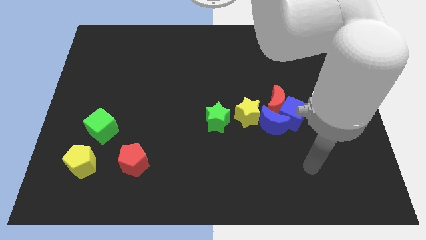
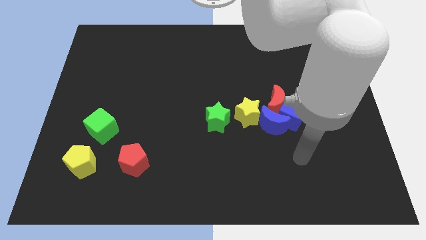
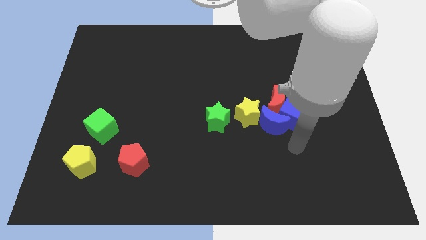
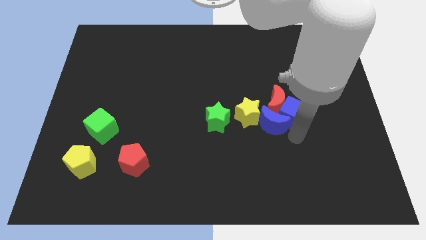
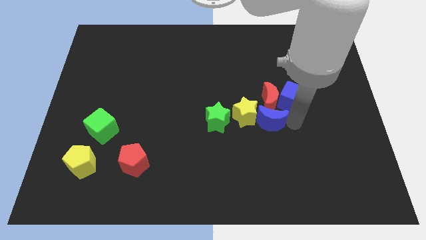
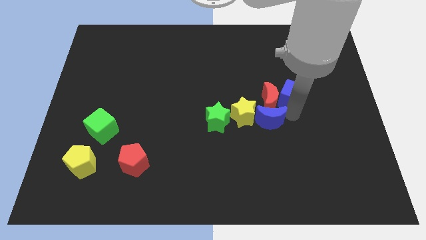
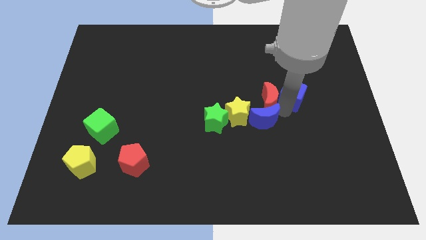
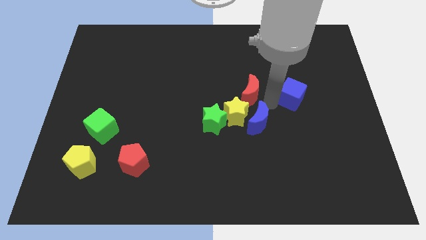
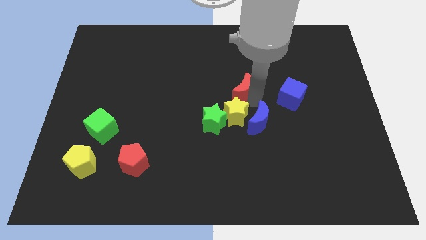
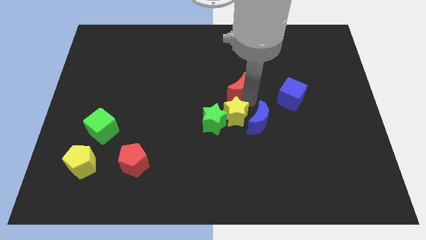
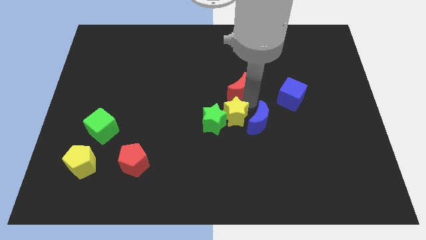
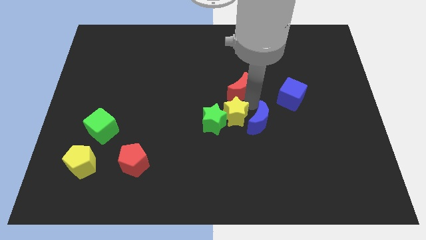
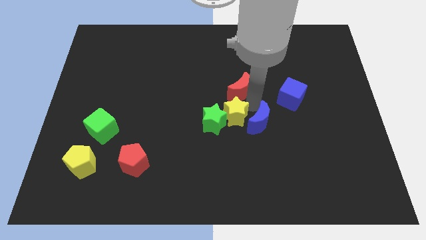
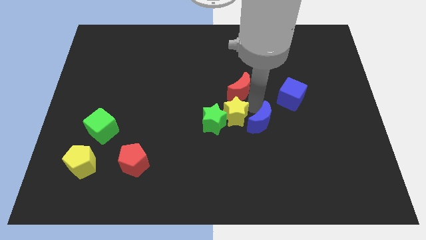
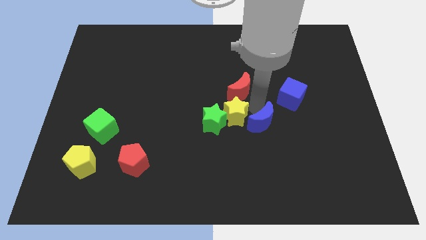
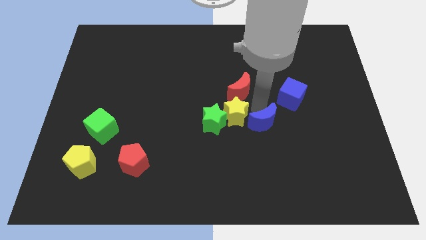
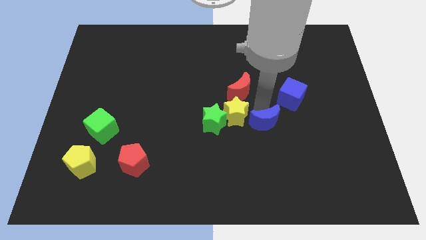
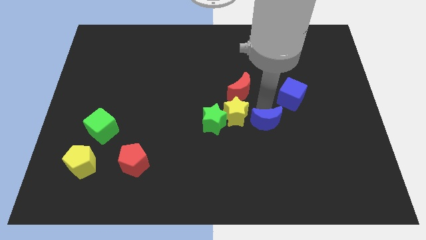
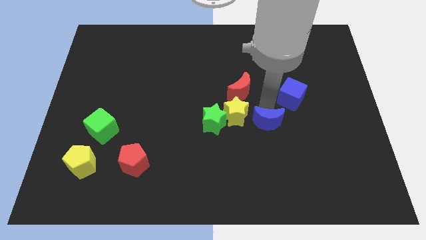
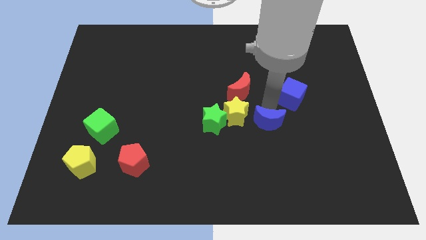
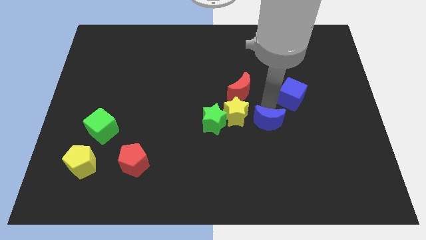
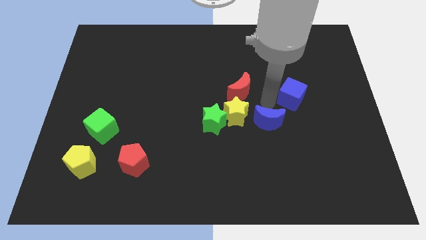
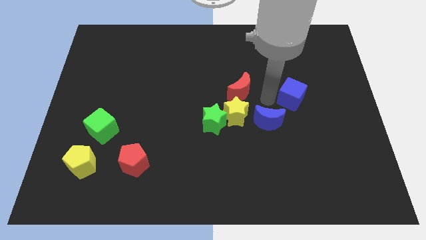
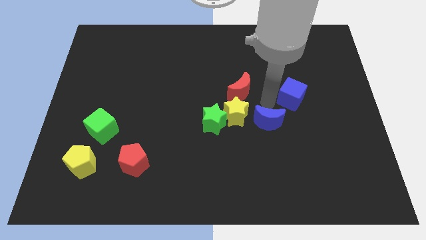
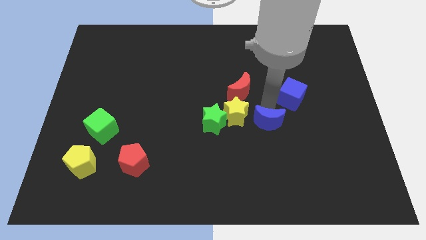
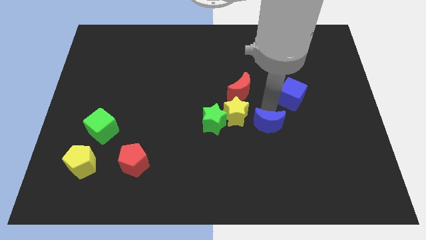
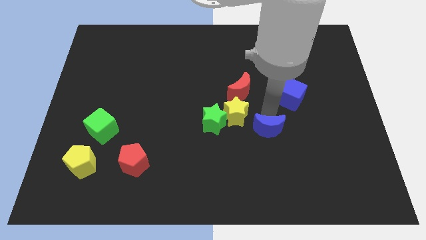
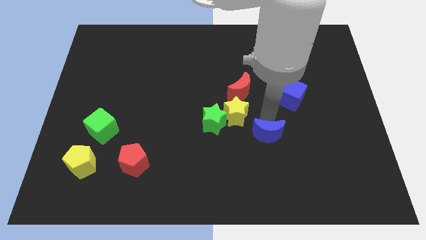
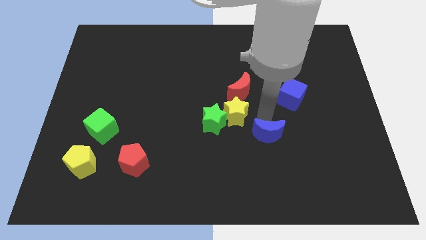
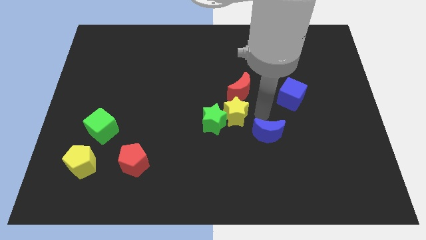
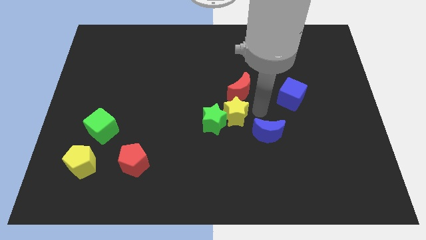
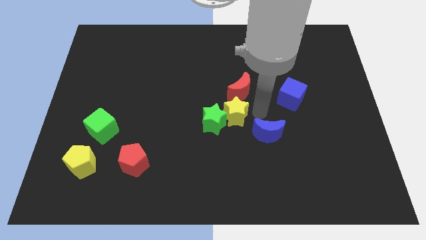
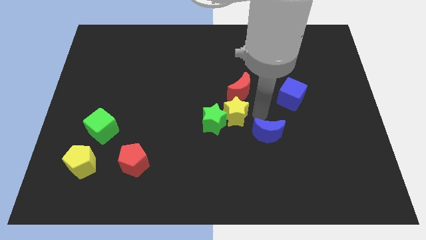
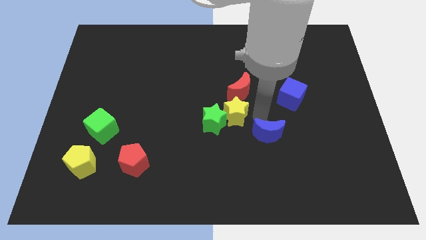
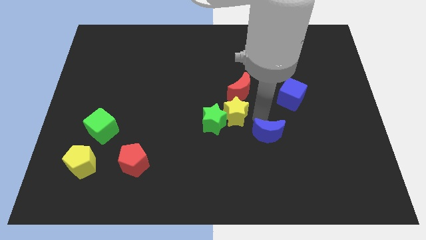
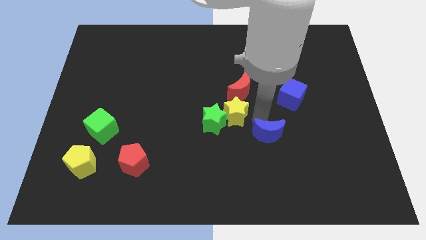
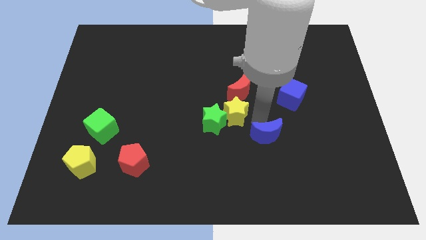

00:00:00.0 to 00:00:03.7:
move the blue moon away from the blue cube, red moon, and yellow star

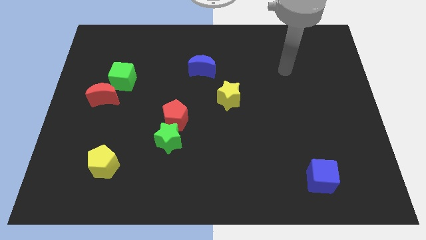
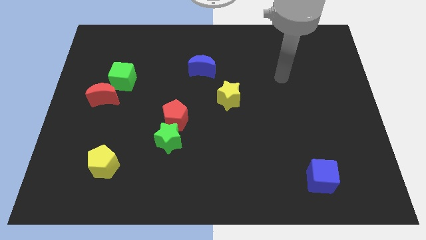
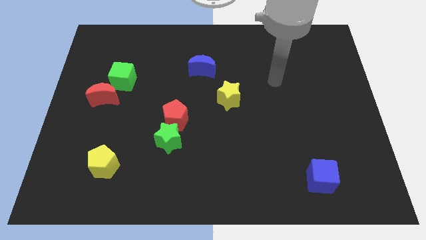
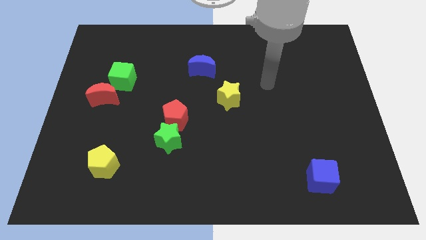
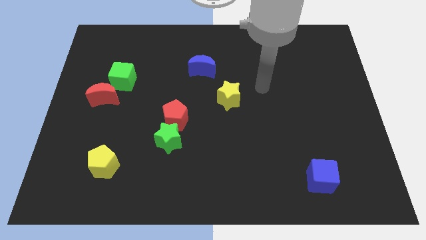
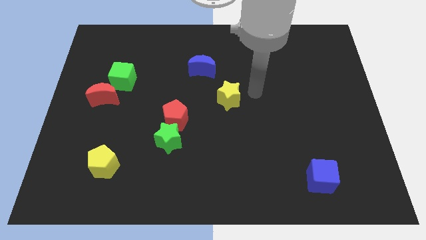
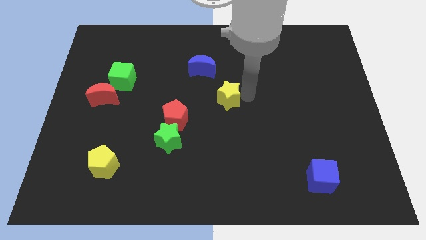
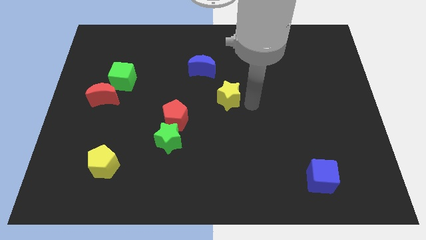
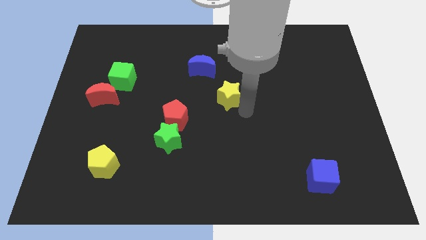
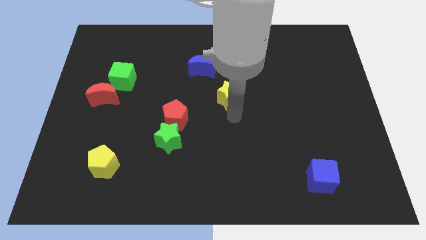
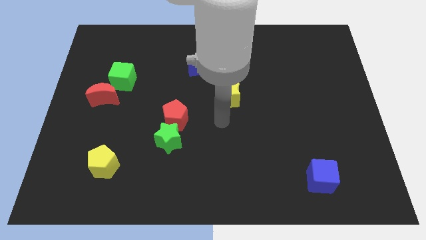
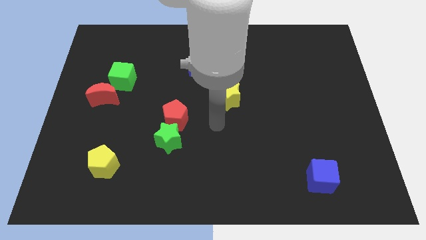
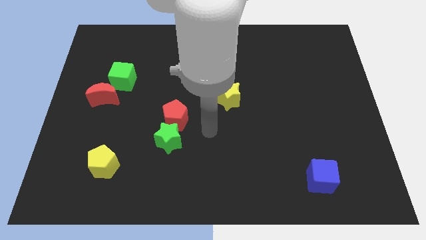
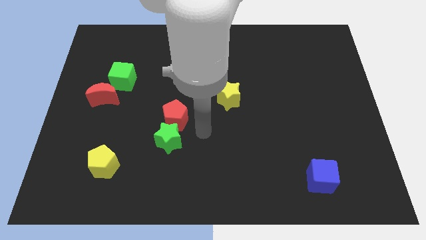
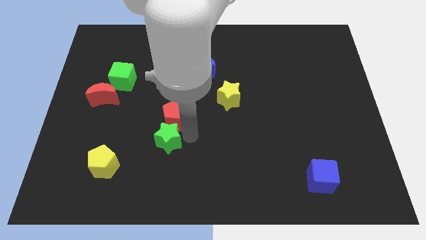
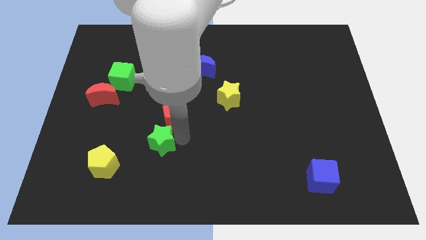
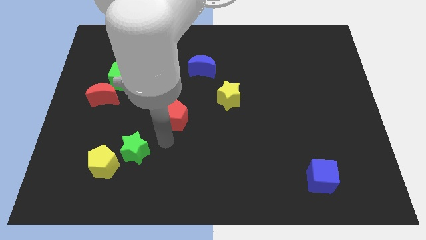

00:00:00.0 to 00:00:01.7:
pull the red pentagon apart from the green star

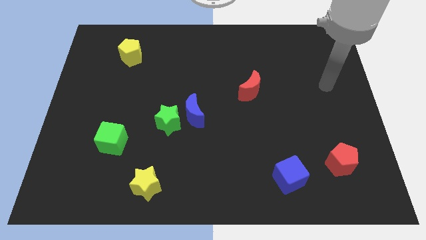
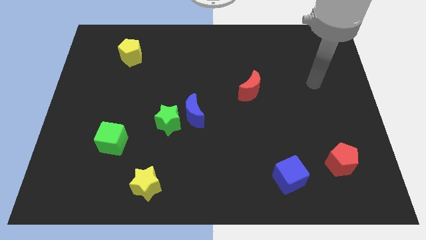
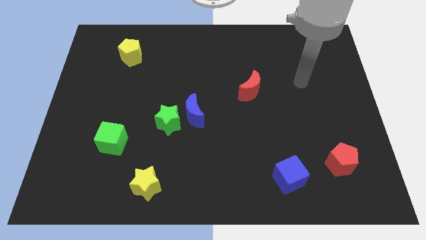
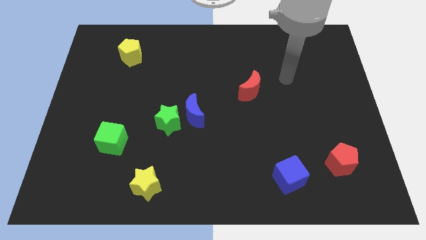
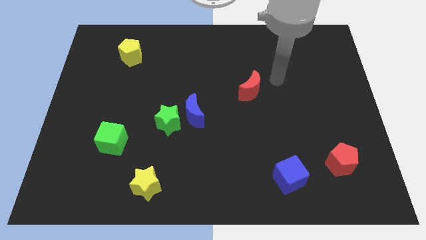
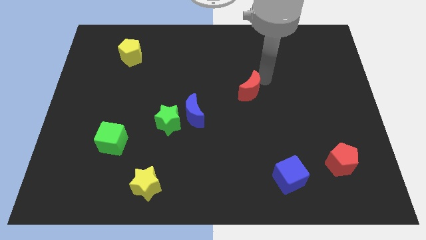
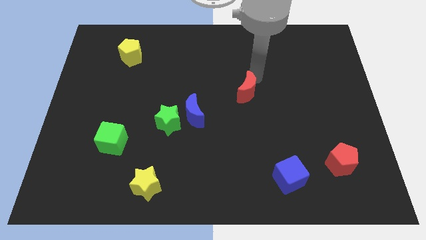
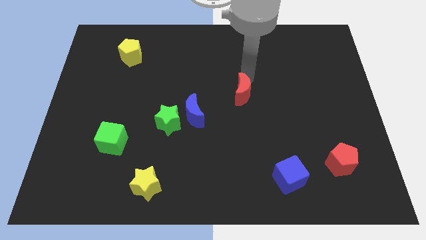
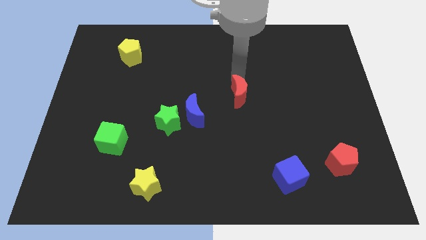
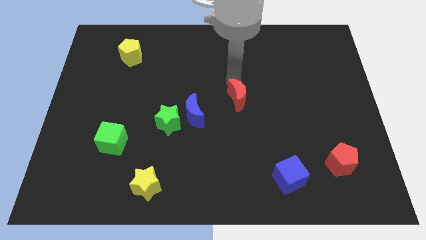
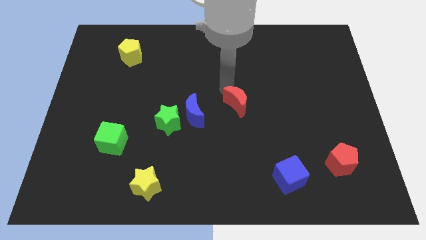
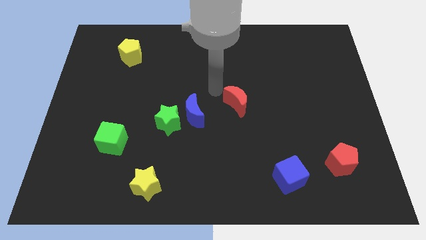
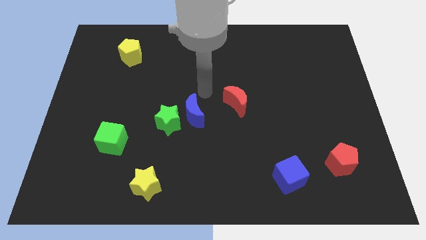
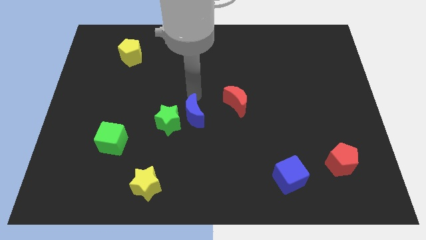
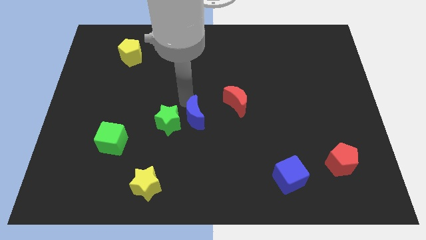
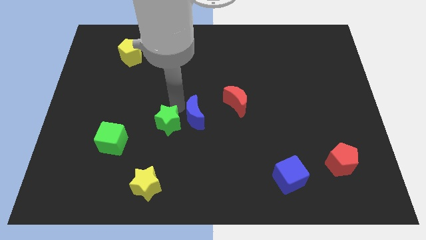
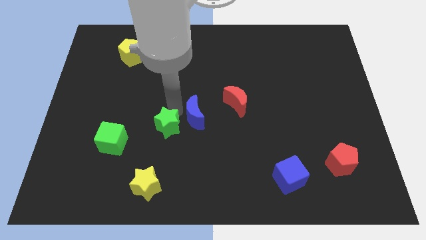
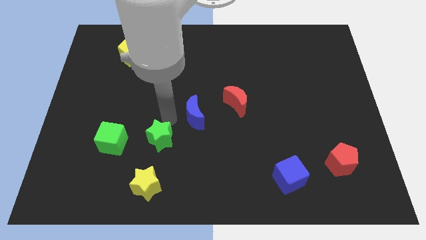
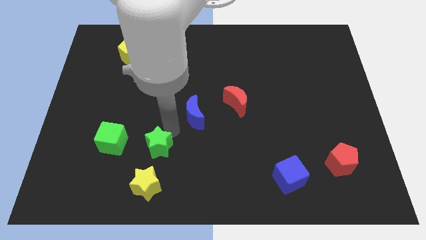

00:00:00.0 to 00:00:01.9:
move the blue moon away from the green star

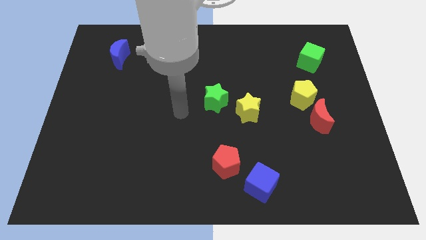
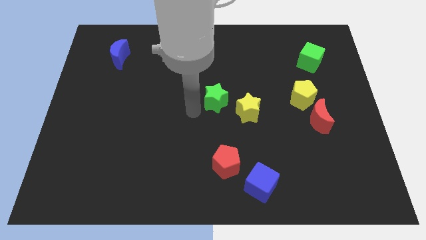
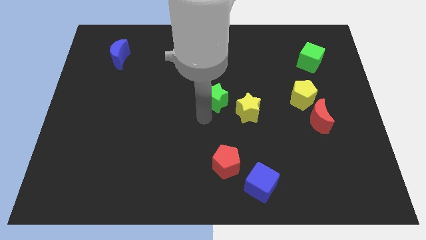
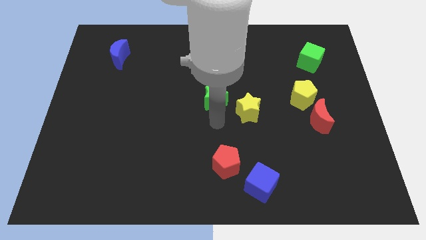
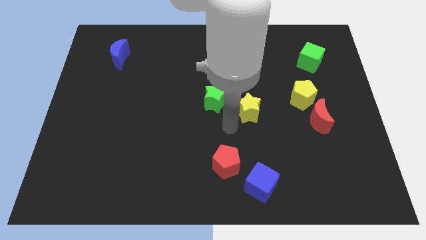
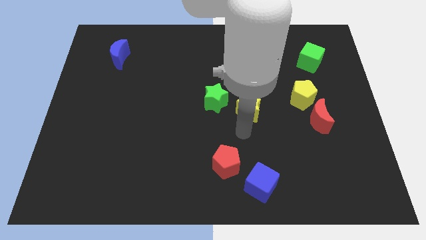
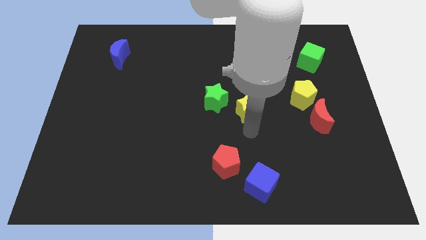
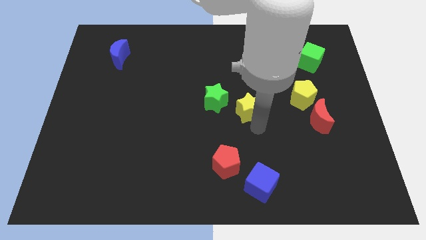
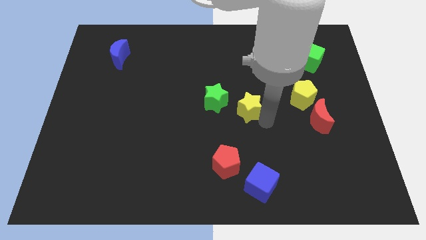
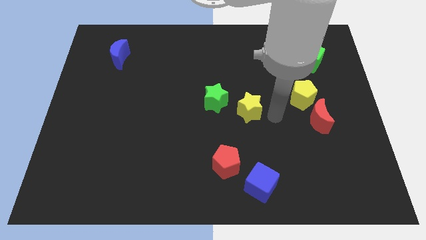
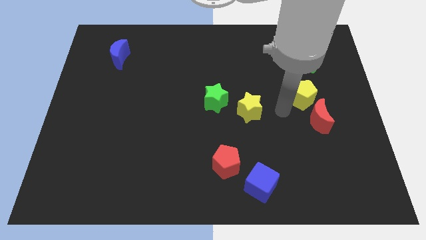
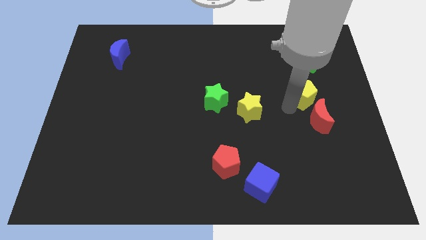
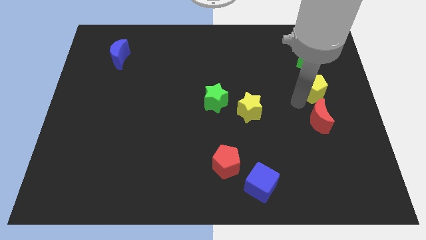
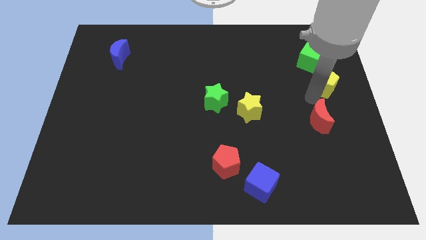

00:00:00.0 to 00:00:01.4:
separate the red moon from the yellow pentagon

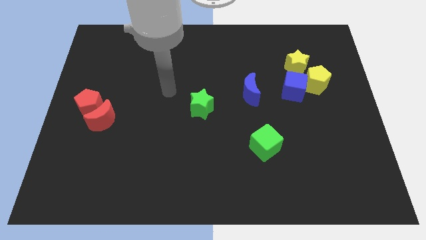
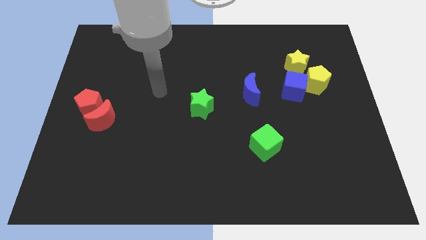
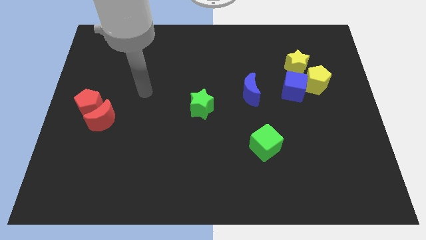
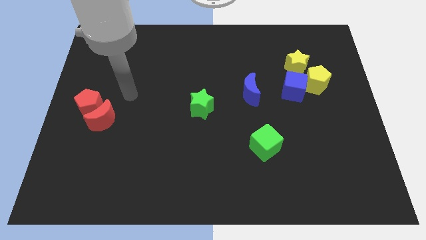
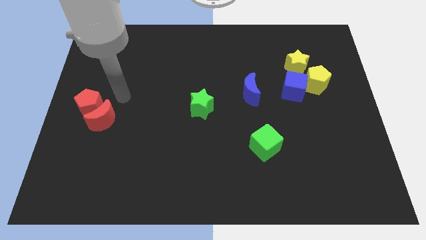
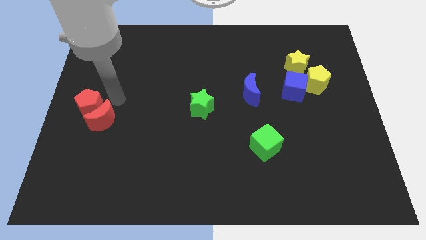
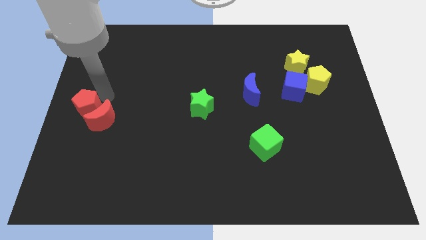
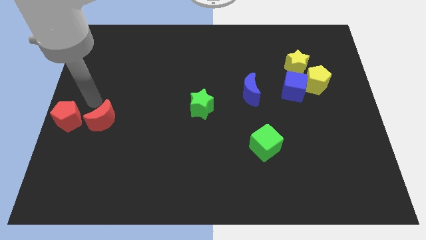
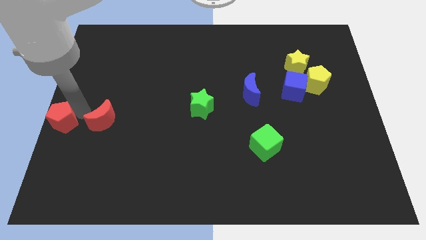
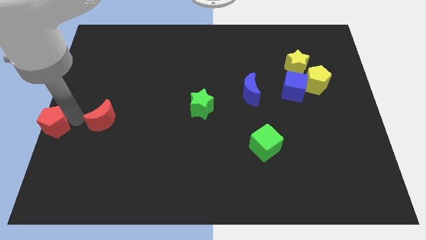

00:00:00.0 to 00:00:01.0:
pull the red moon apart from the red pentagon
